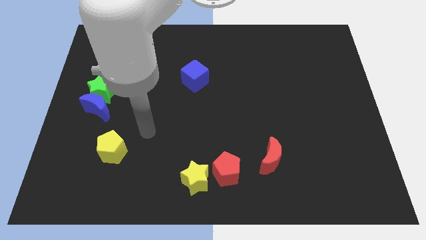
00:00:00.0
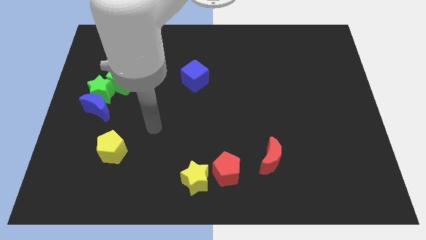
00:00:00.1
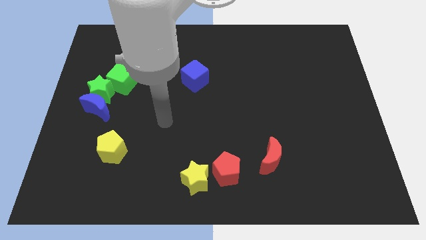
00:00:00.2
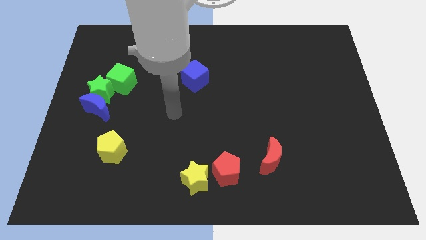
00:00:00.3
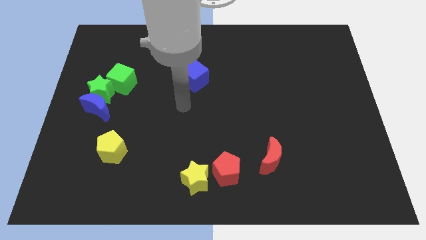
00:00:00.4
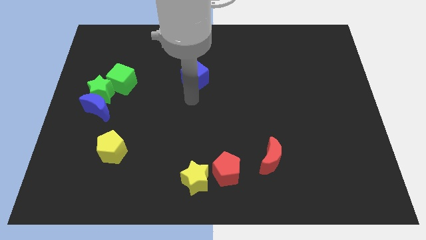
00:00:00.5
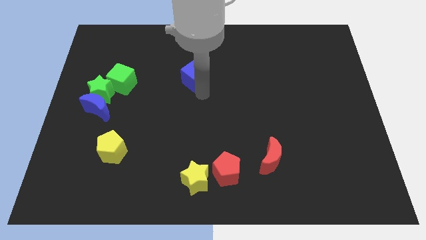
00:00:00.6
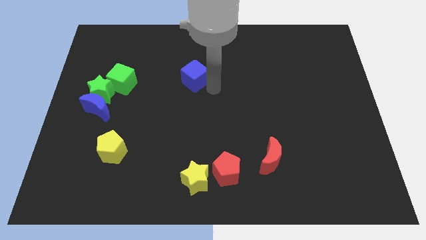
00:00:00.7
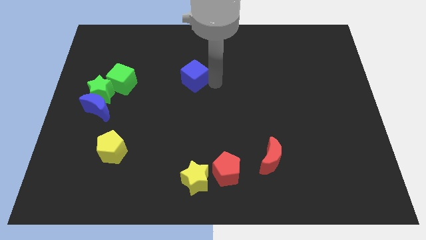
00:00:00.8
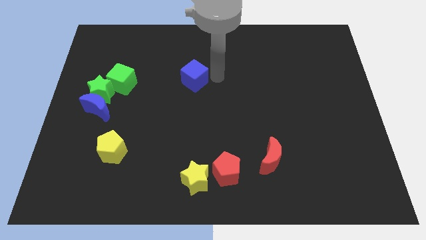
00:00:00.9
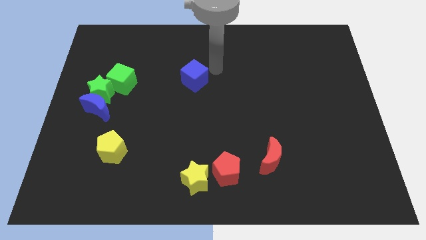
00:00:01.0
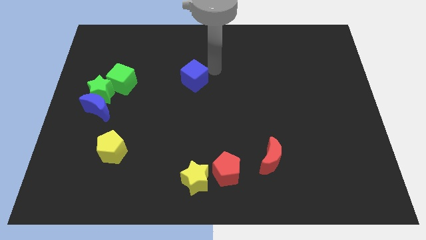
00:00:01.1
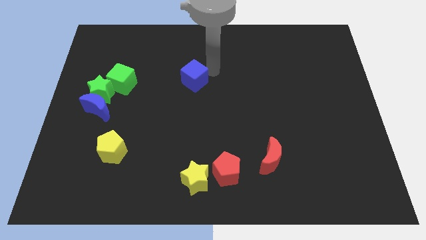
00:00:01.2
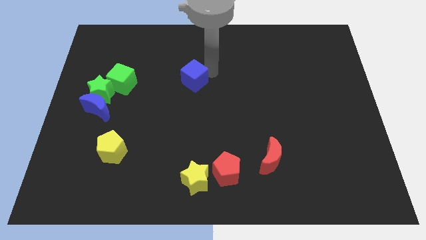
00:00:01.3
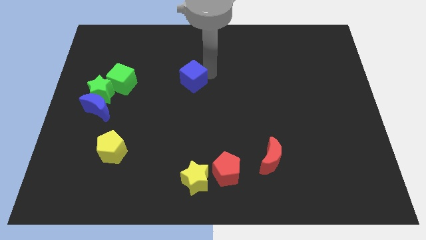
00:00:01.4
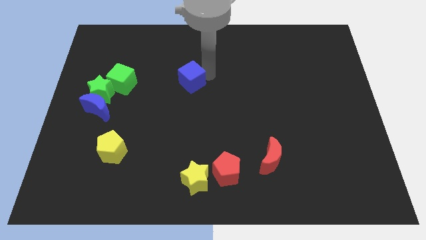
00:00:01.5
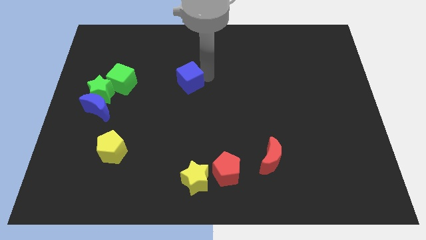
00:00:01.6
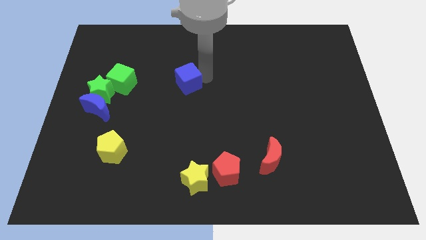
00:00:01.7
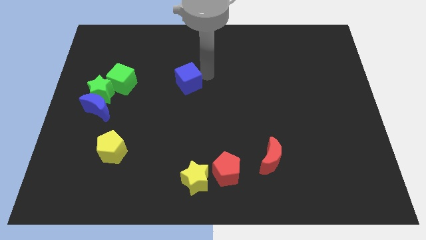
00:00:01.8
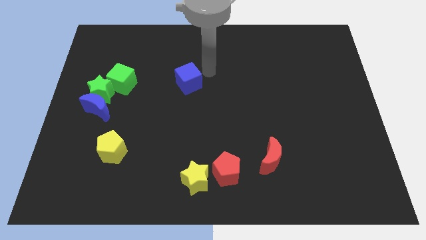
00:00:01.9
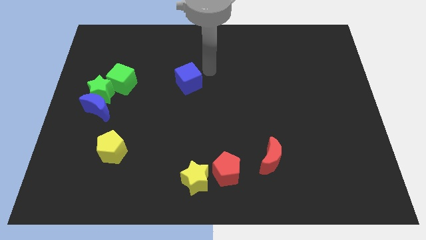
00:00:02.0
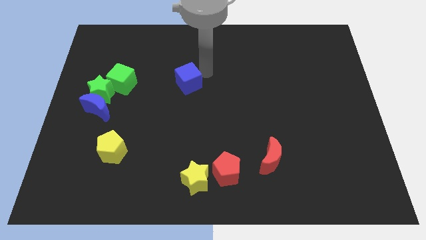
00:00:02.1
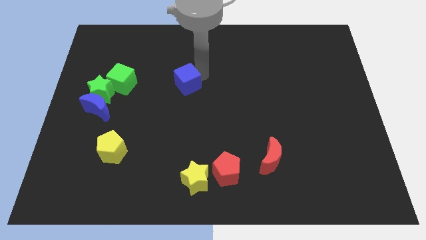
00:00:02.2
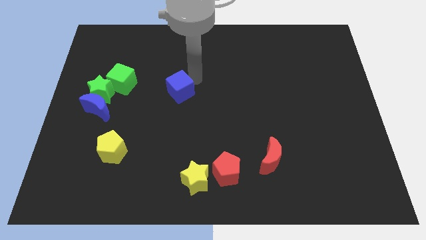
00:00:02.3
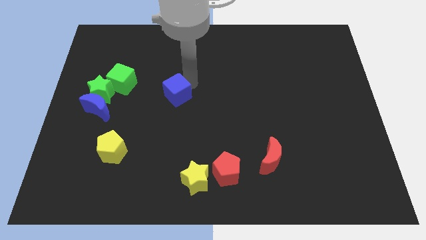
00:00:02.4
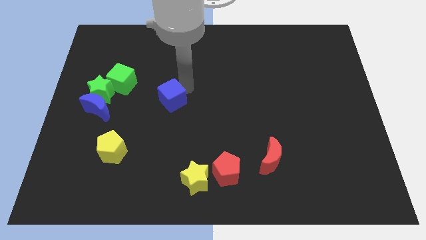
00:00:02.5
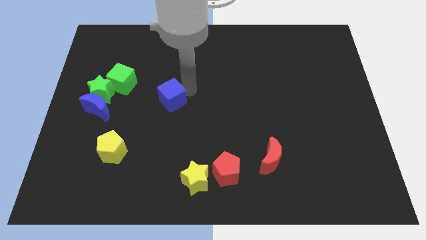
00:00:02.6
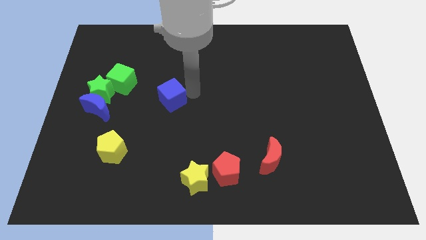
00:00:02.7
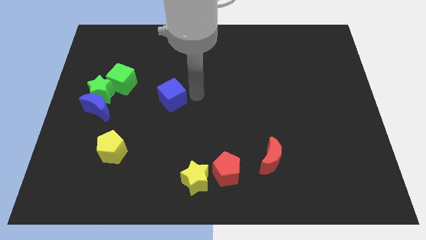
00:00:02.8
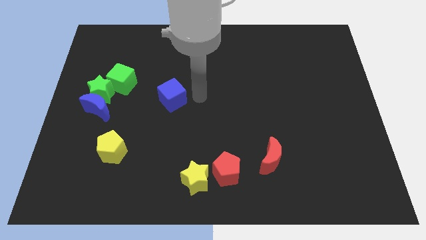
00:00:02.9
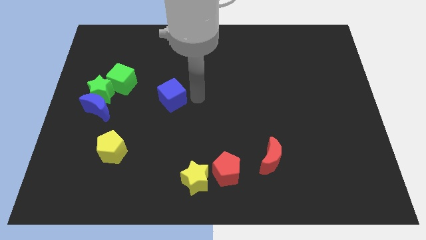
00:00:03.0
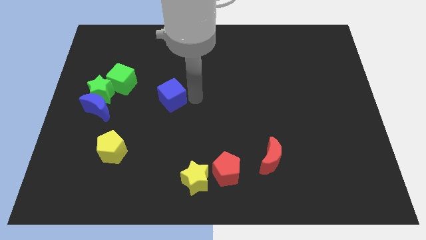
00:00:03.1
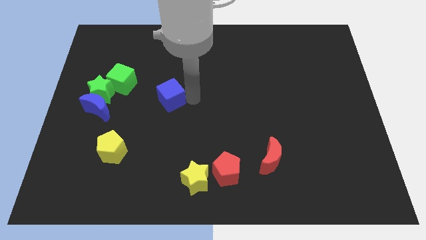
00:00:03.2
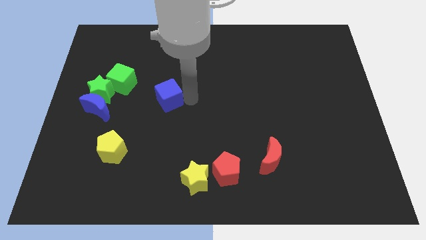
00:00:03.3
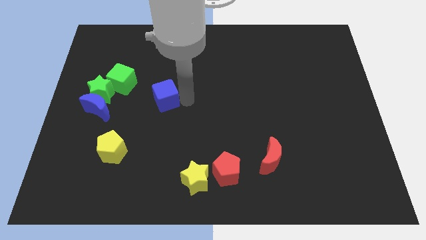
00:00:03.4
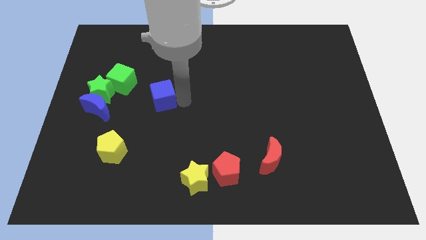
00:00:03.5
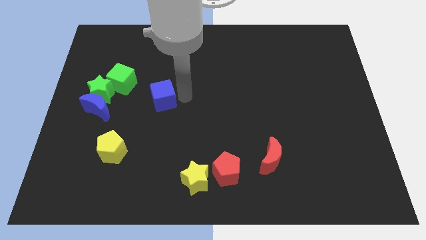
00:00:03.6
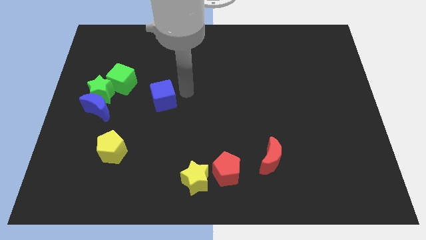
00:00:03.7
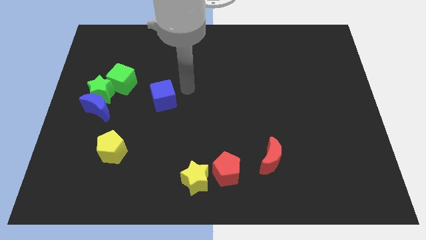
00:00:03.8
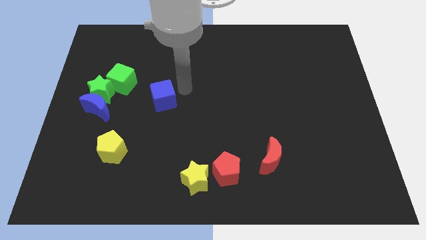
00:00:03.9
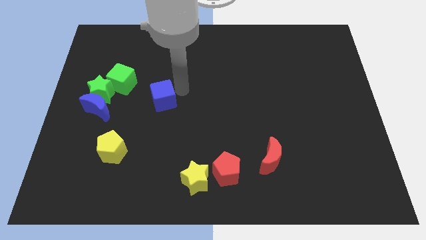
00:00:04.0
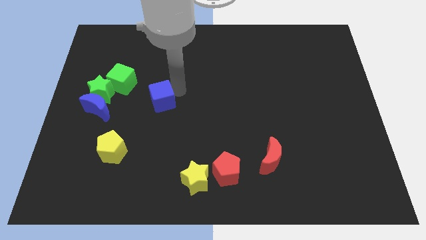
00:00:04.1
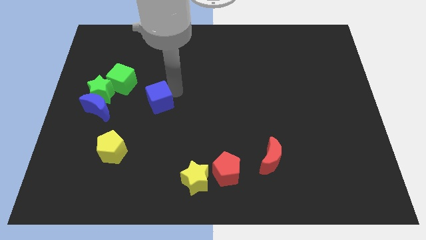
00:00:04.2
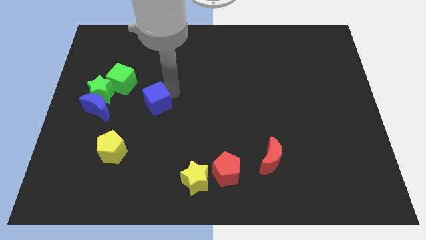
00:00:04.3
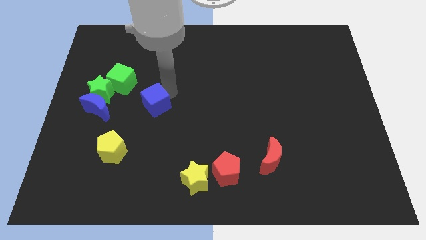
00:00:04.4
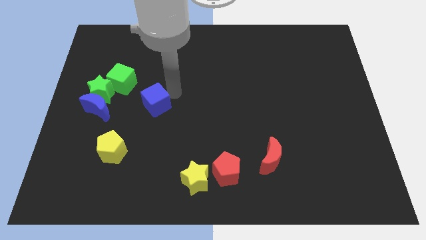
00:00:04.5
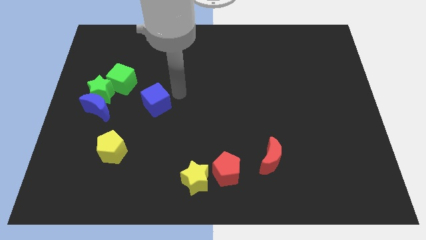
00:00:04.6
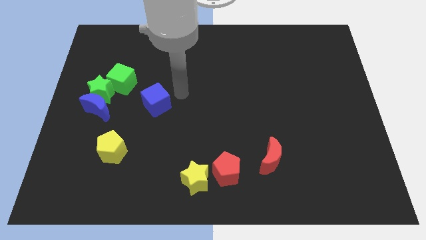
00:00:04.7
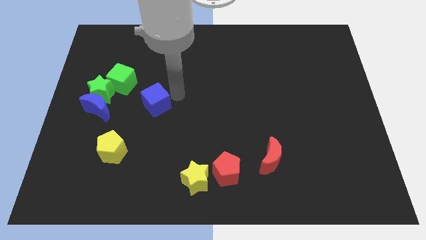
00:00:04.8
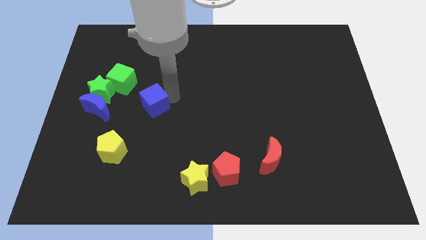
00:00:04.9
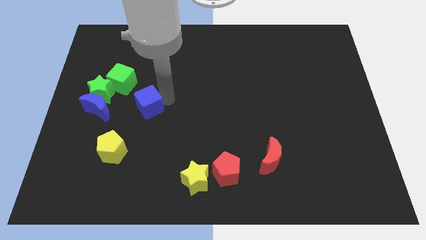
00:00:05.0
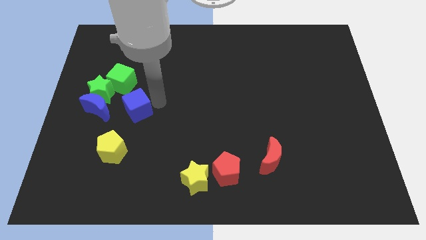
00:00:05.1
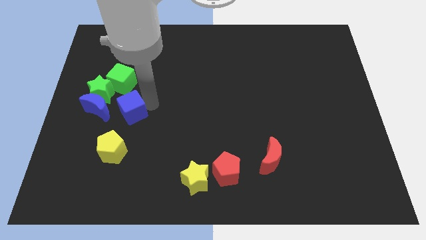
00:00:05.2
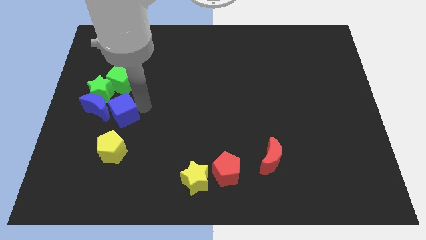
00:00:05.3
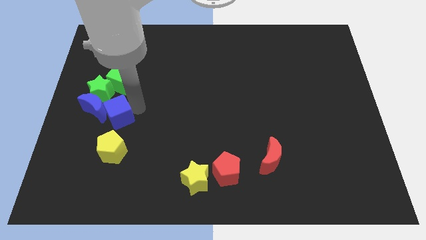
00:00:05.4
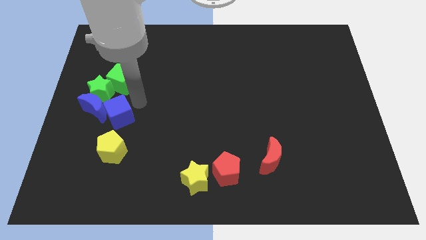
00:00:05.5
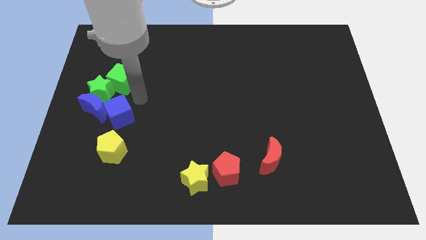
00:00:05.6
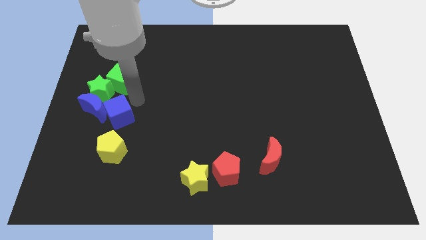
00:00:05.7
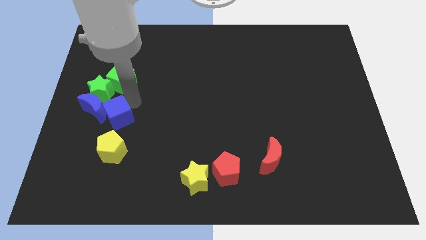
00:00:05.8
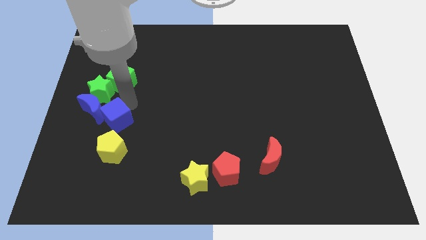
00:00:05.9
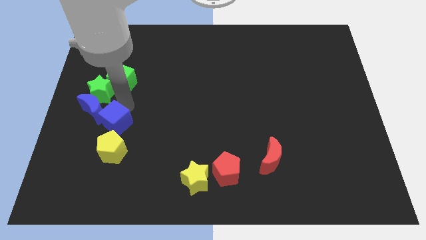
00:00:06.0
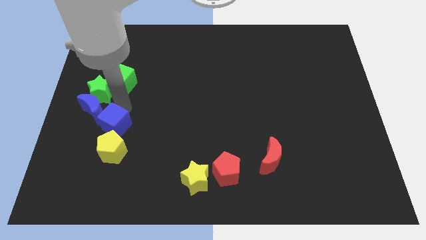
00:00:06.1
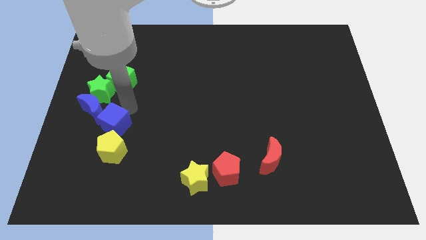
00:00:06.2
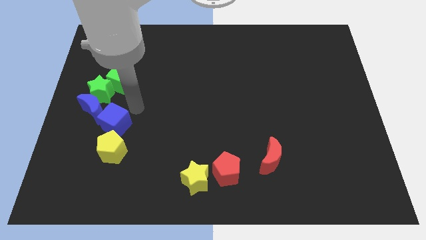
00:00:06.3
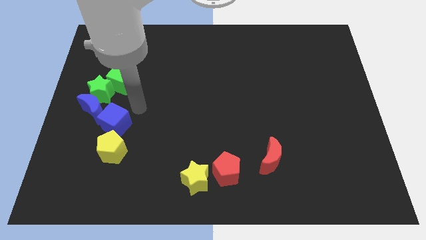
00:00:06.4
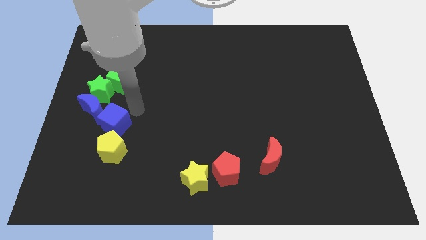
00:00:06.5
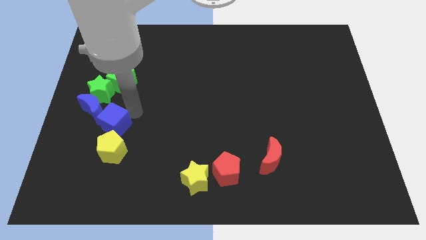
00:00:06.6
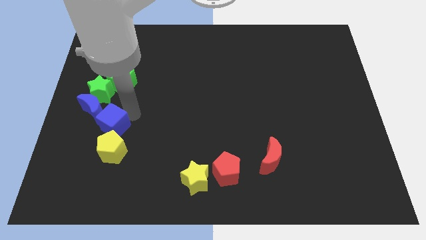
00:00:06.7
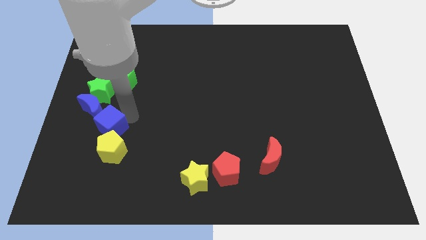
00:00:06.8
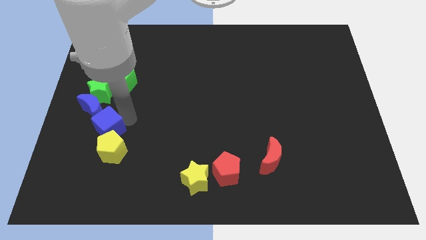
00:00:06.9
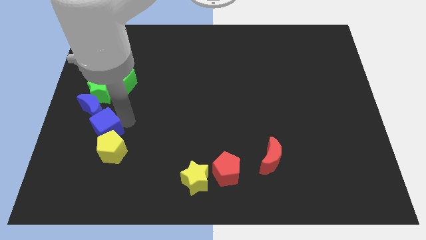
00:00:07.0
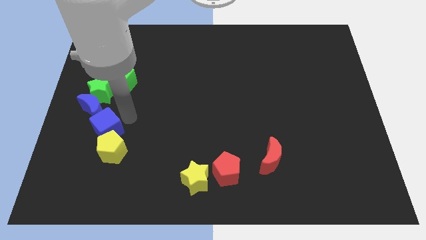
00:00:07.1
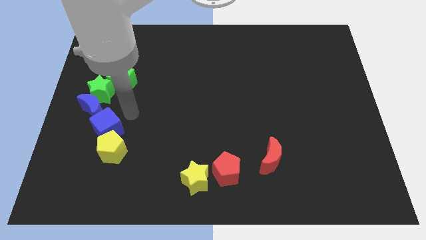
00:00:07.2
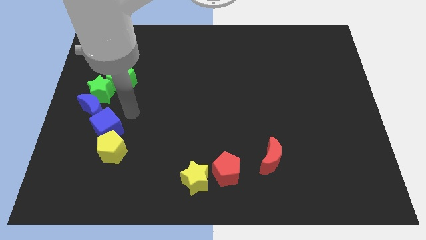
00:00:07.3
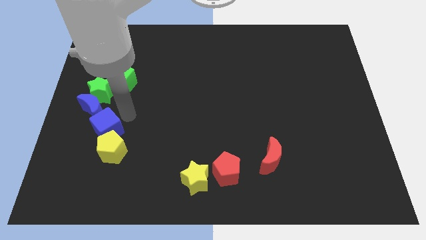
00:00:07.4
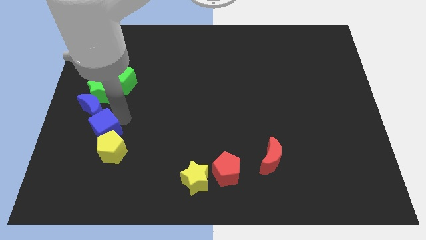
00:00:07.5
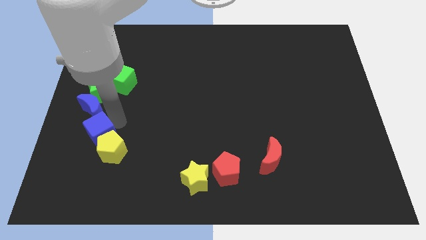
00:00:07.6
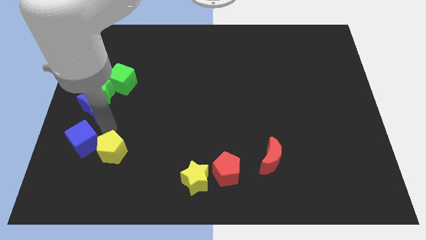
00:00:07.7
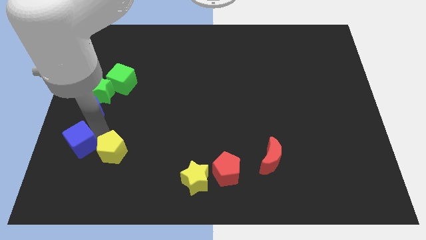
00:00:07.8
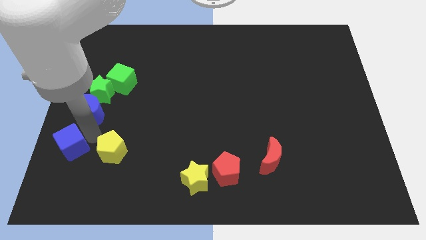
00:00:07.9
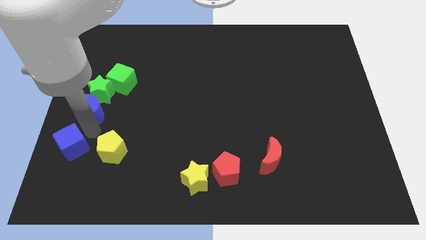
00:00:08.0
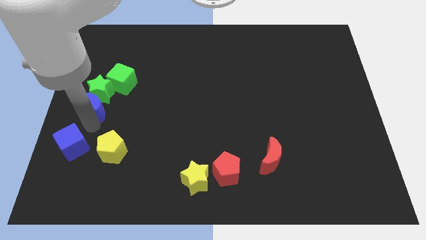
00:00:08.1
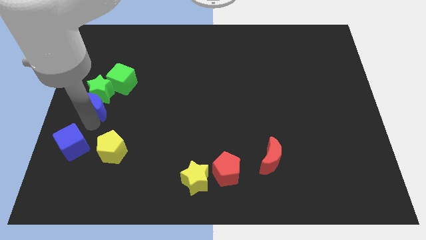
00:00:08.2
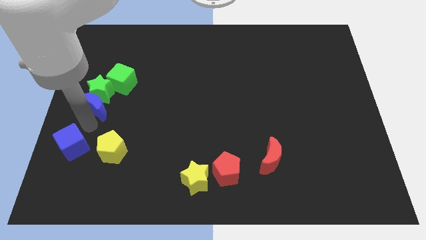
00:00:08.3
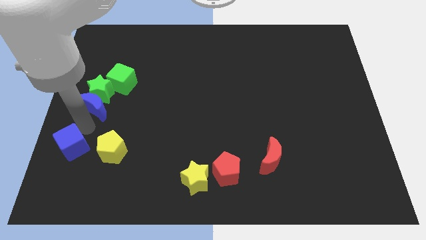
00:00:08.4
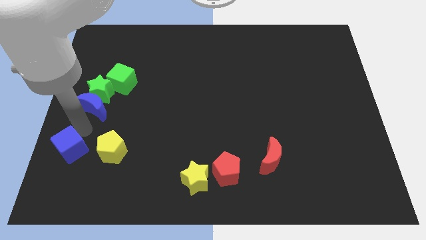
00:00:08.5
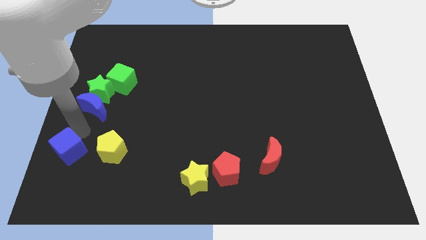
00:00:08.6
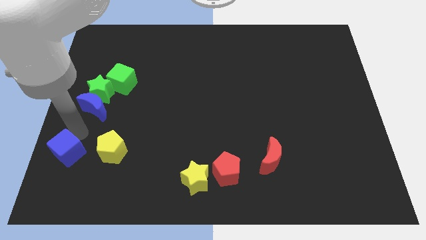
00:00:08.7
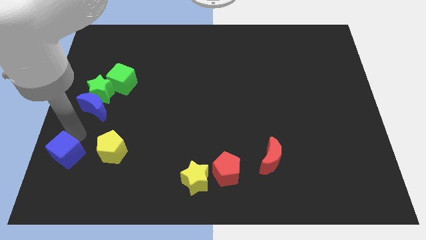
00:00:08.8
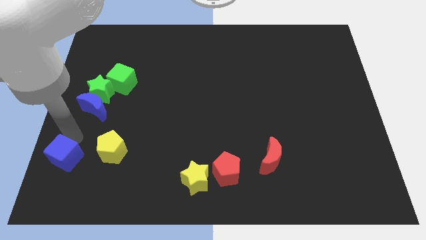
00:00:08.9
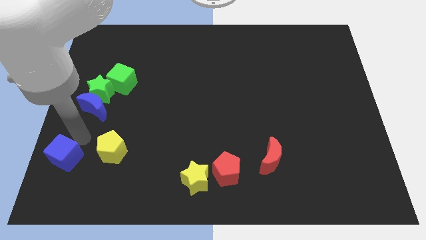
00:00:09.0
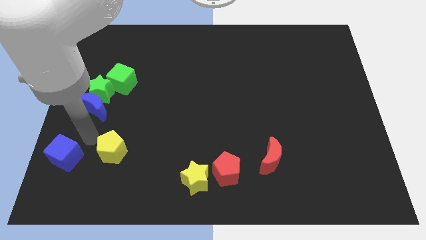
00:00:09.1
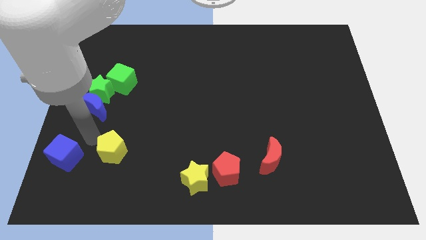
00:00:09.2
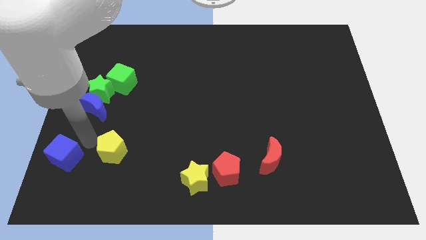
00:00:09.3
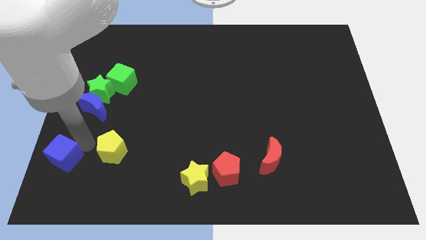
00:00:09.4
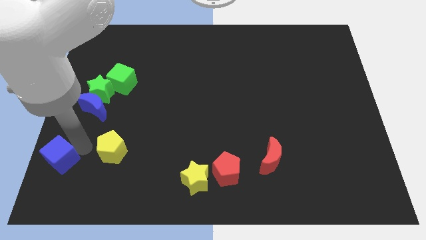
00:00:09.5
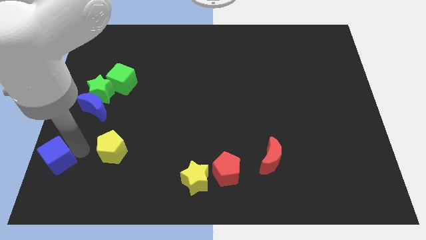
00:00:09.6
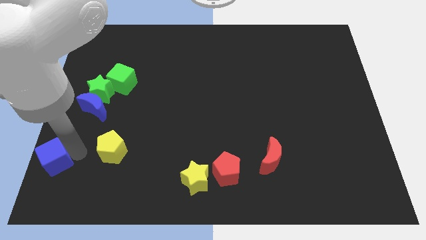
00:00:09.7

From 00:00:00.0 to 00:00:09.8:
move the blue cube to the bottom left
